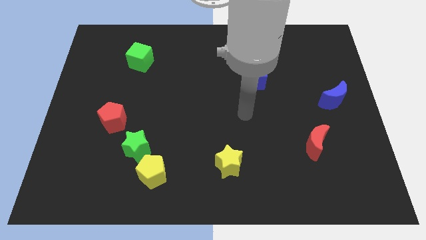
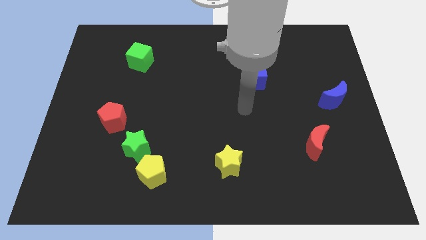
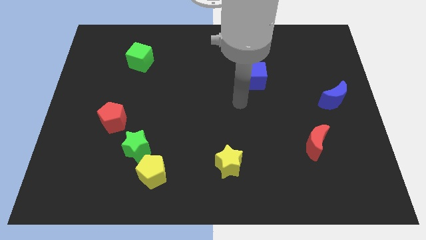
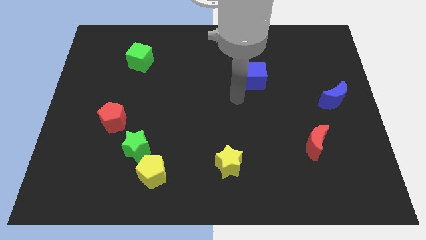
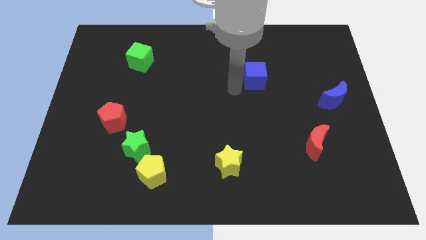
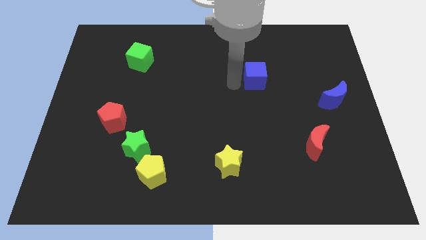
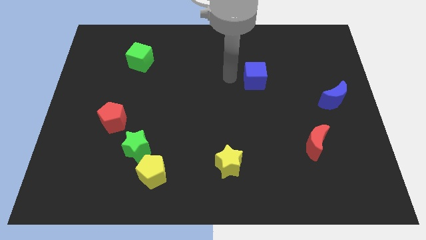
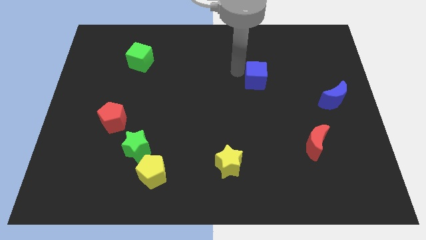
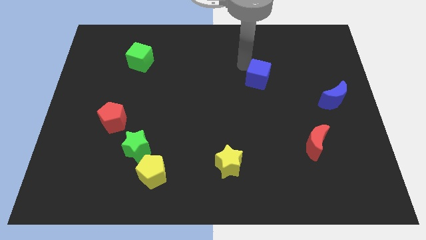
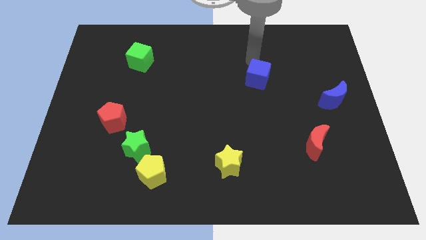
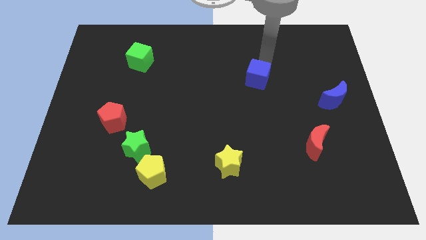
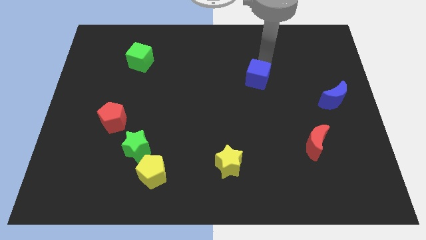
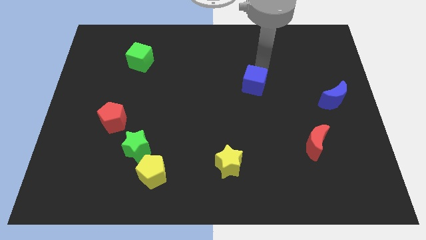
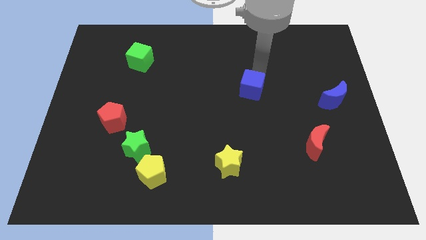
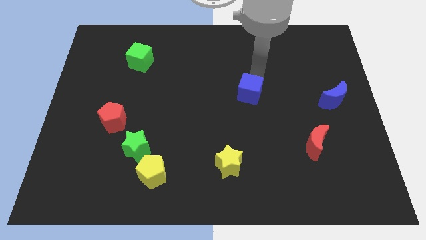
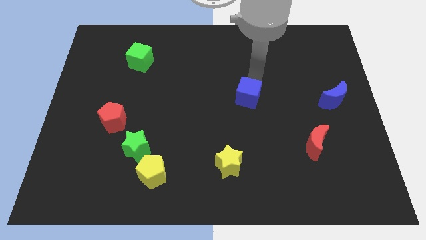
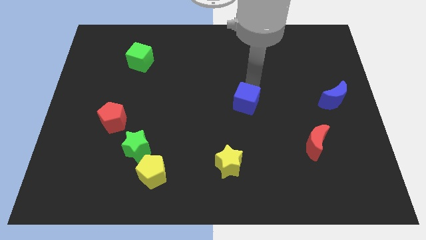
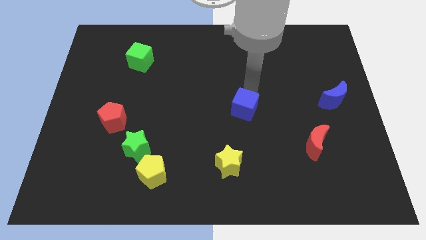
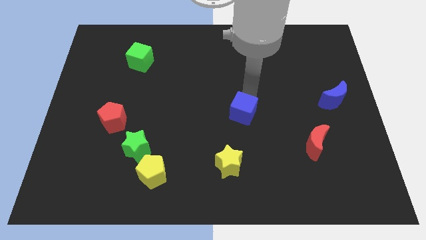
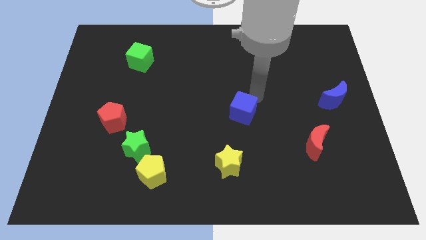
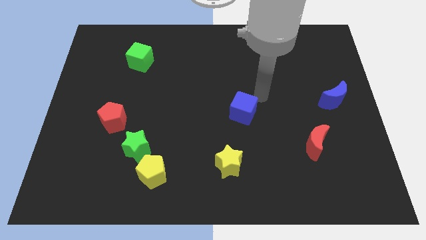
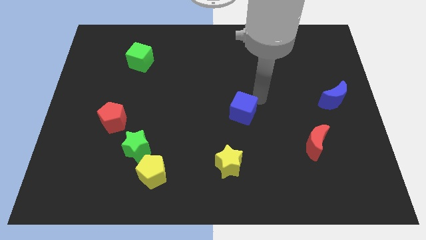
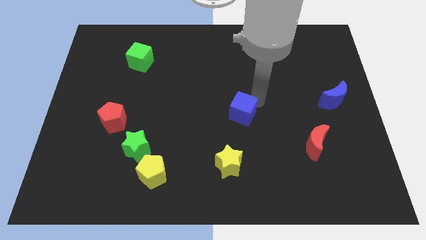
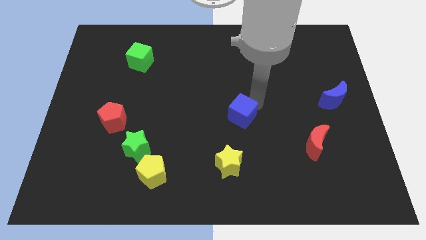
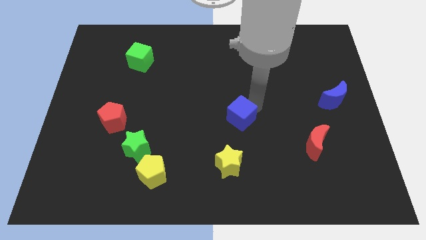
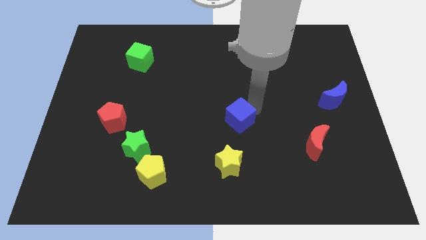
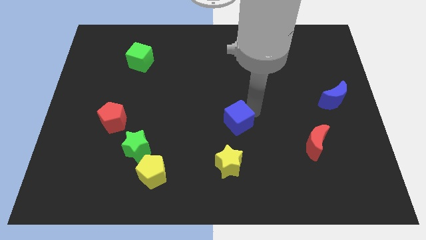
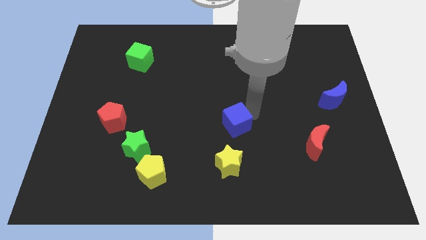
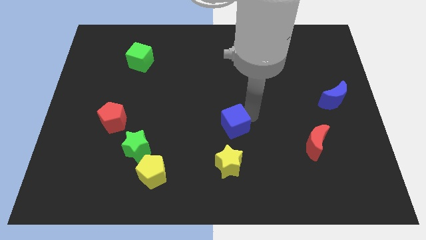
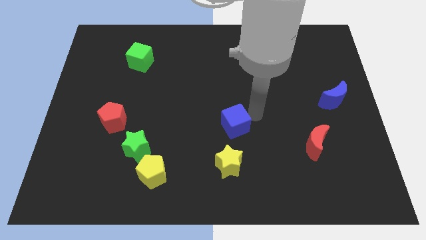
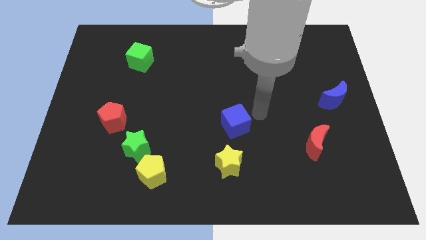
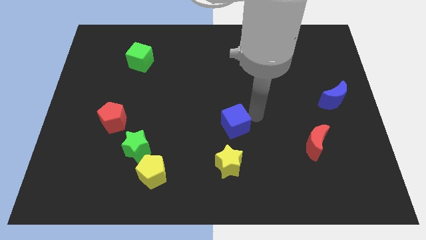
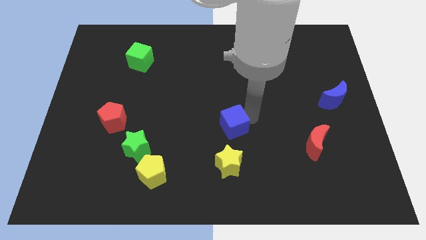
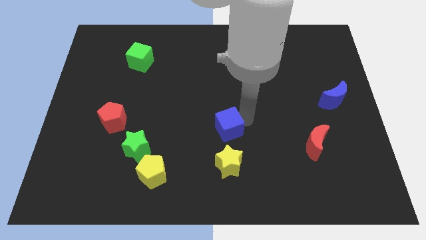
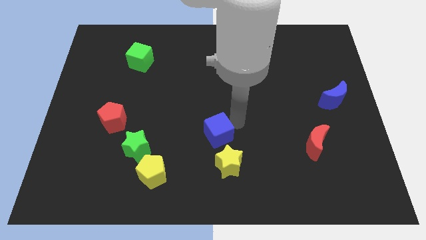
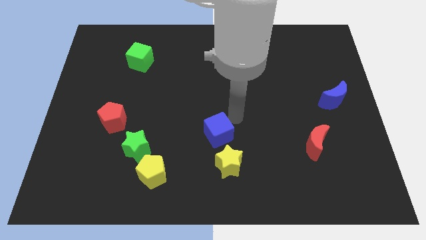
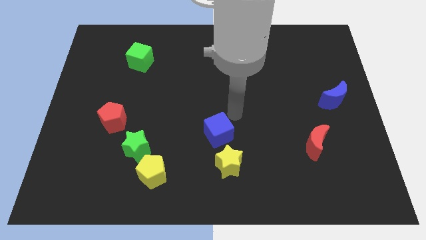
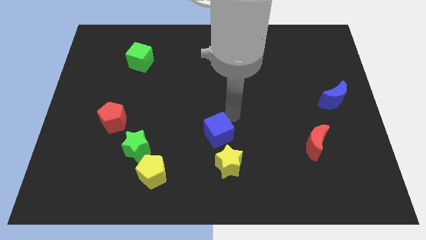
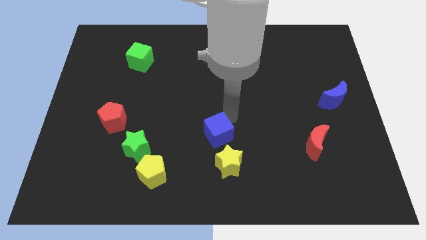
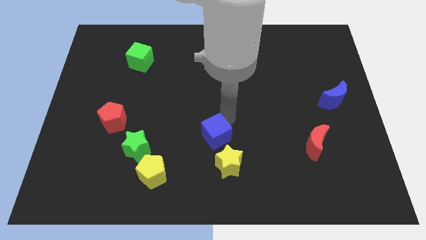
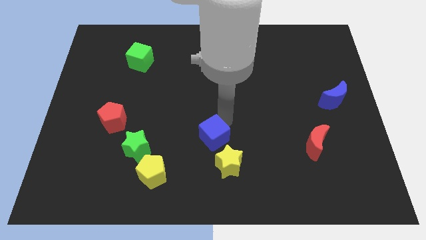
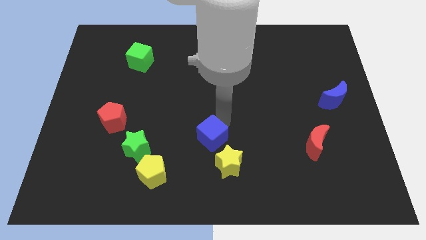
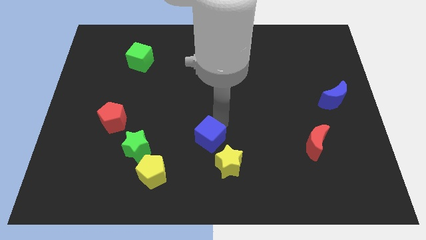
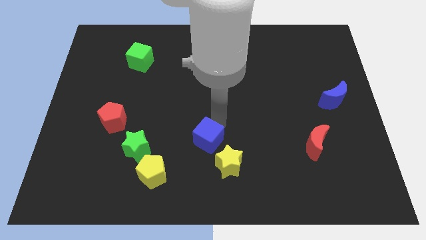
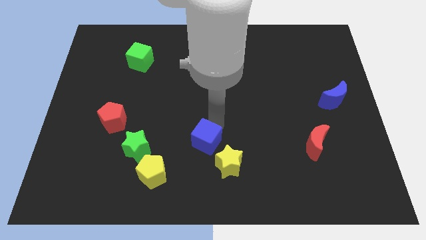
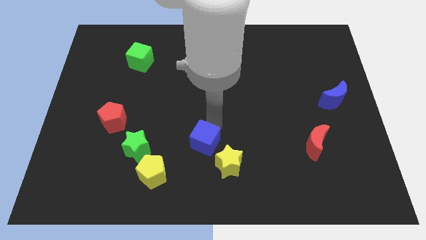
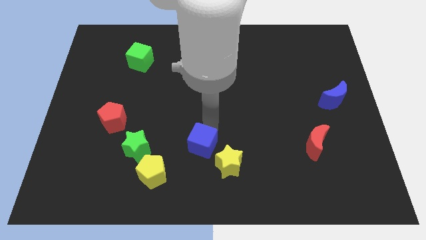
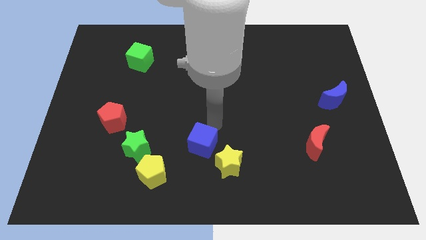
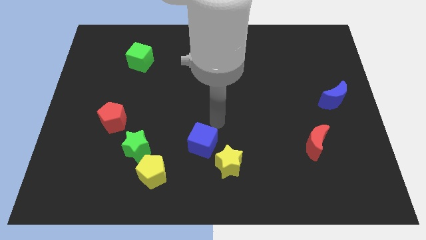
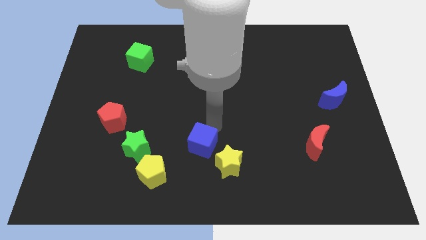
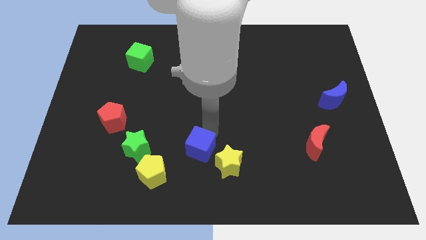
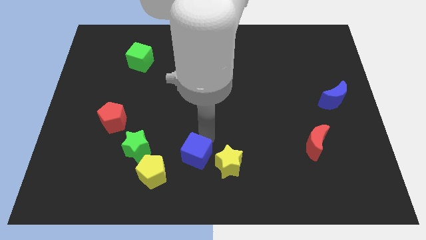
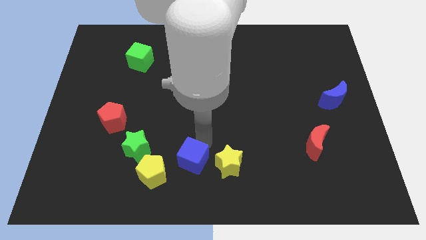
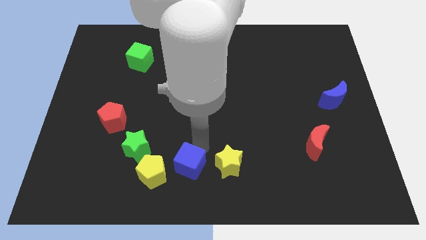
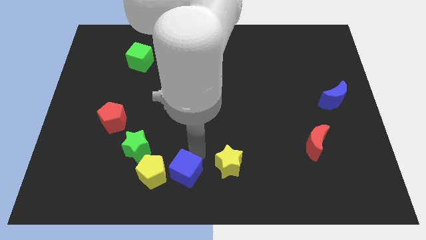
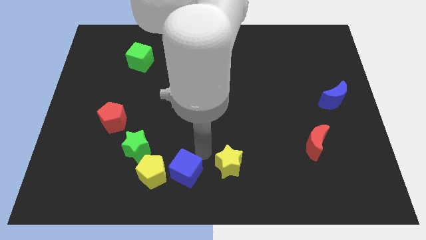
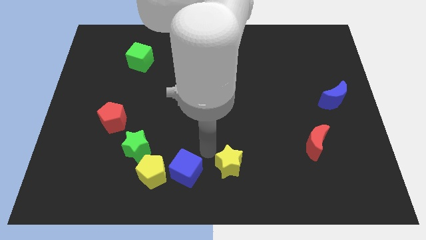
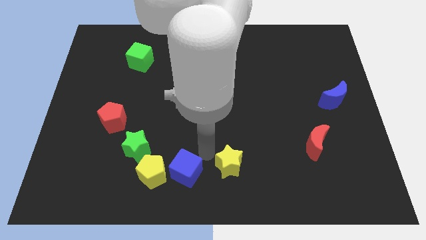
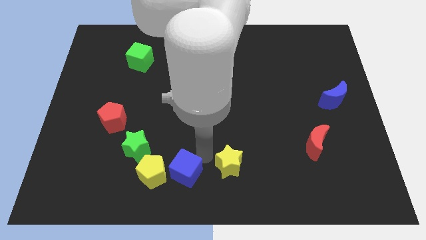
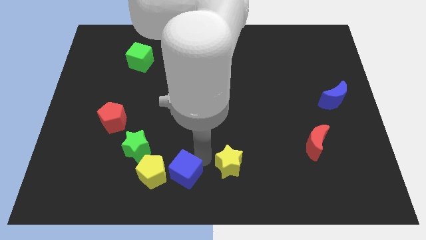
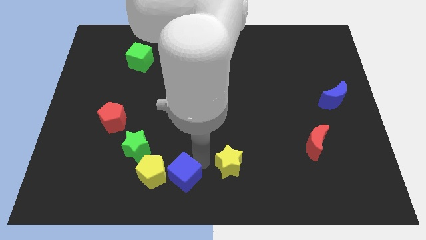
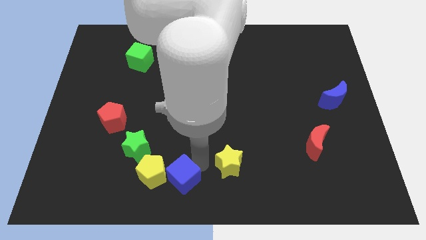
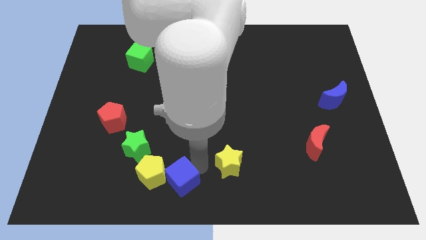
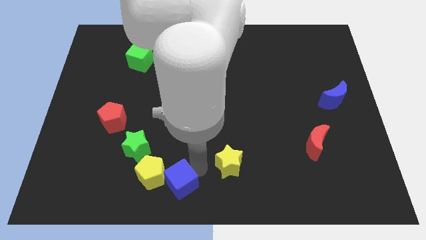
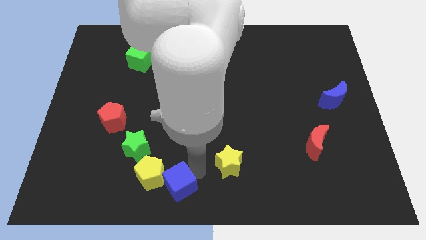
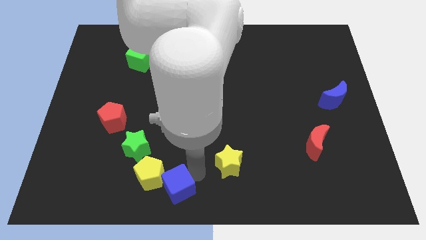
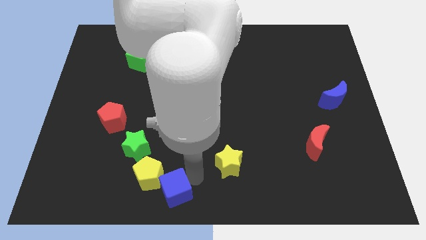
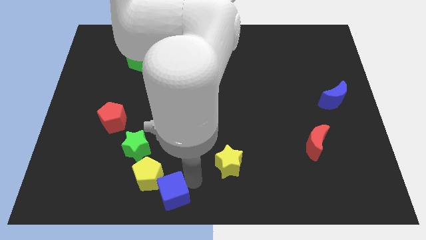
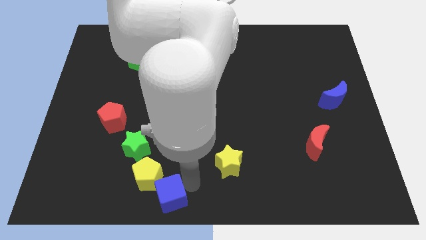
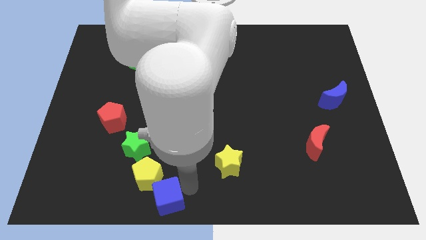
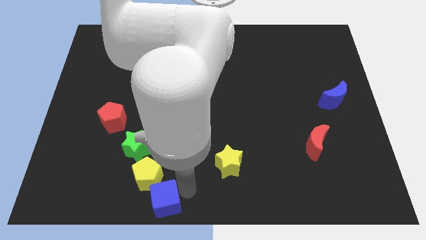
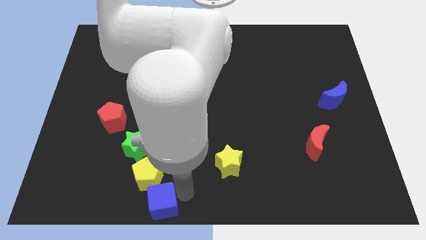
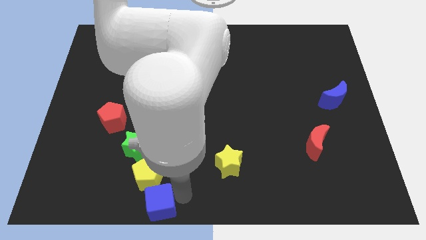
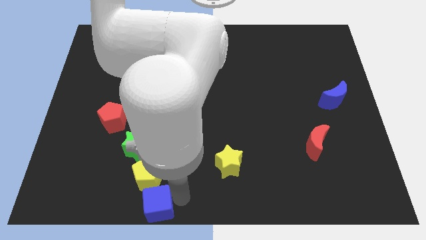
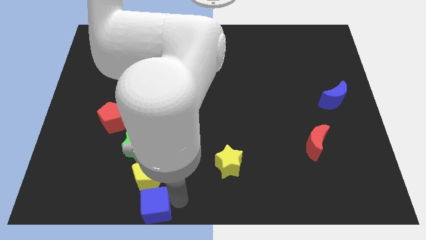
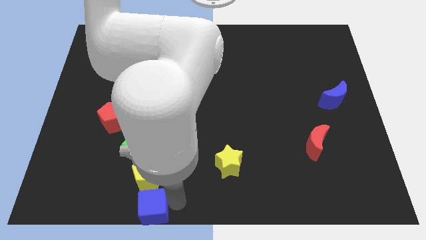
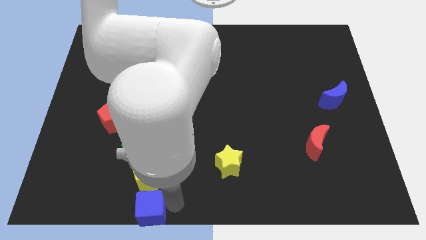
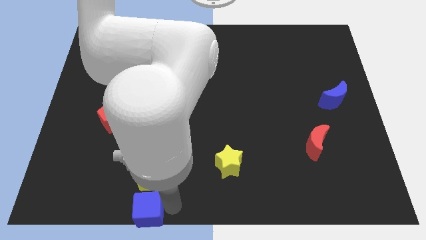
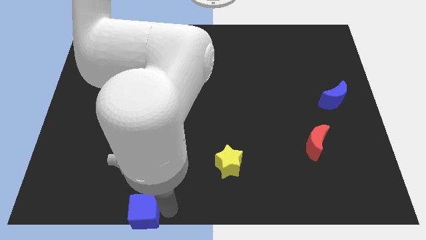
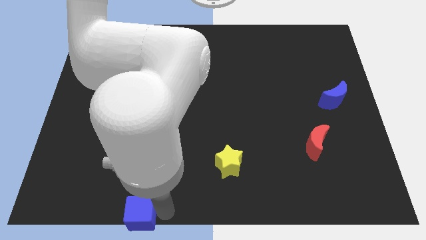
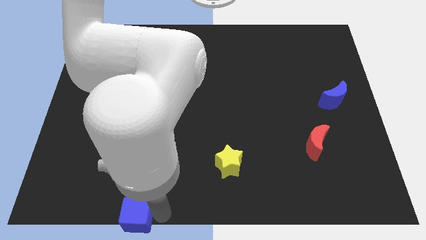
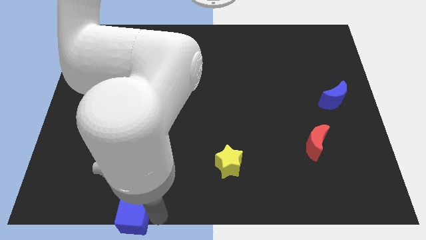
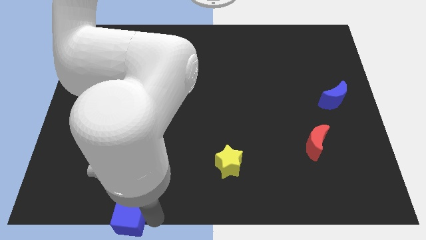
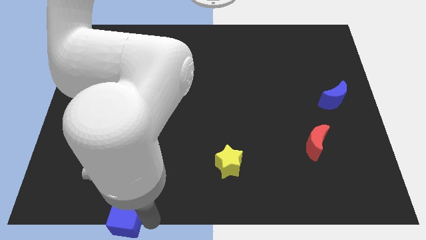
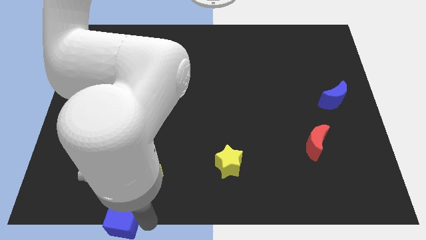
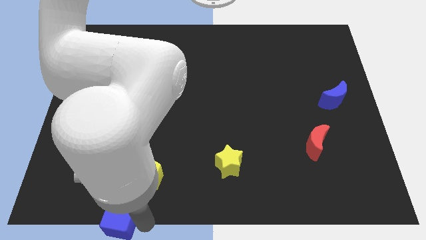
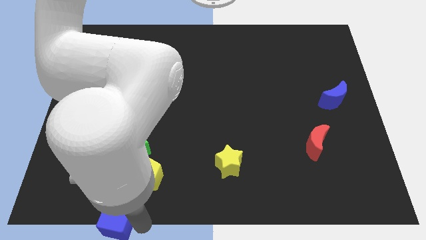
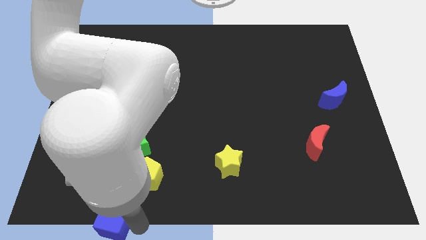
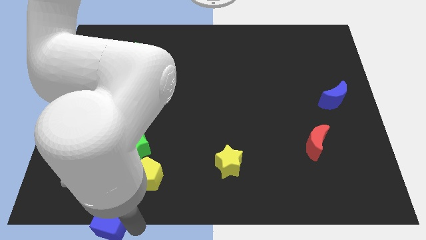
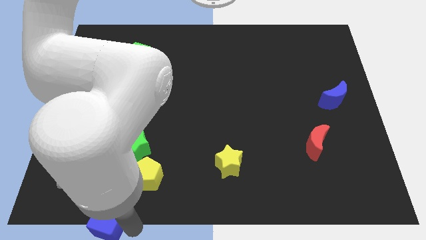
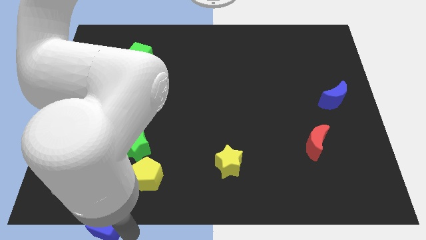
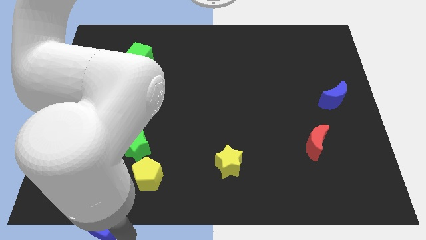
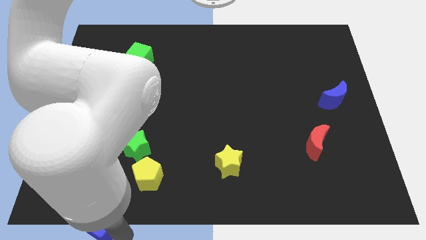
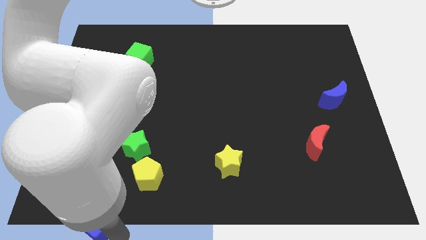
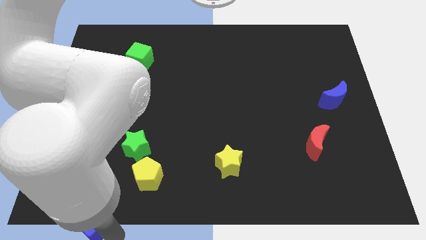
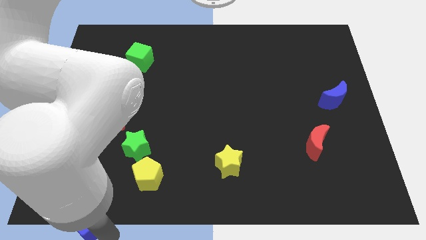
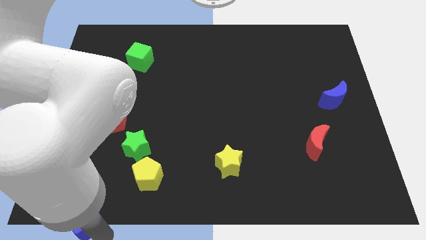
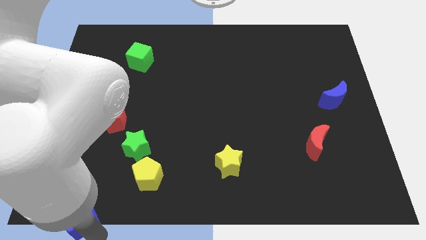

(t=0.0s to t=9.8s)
move the blue cube to the bottom left corner
